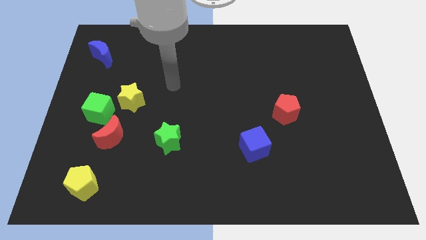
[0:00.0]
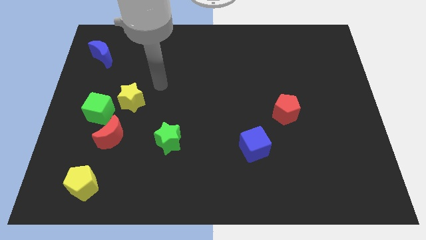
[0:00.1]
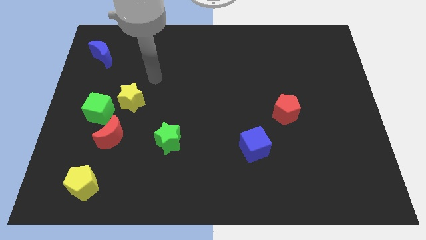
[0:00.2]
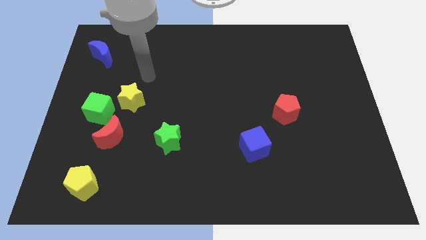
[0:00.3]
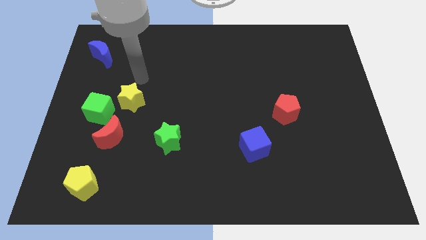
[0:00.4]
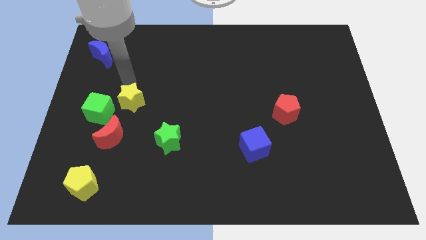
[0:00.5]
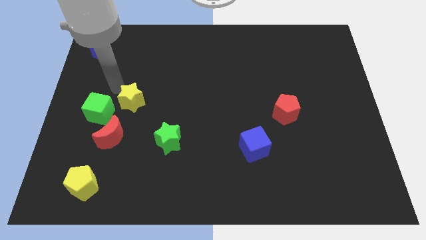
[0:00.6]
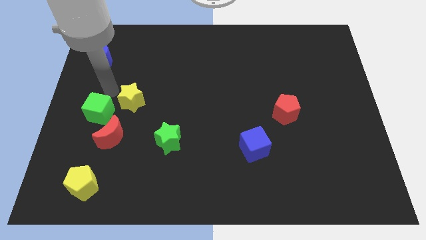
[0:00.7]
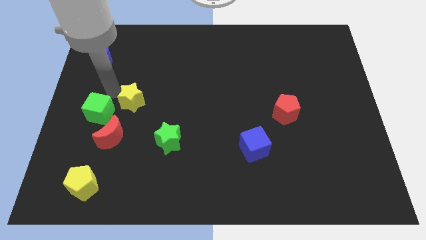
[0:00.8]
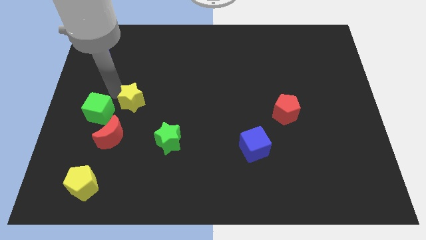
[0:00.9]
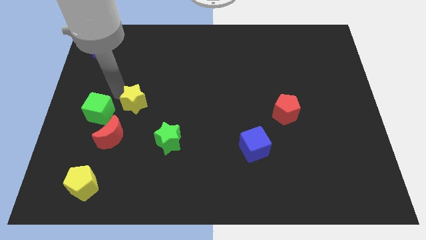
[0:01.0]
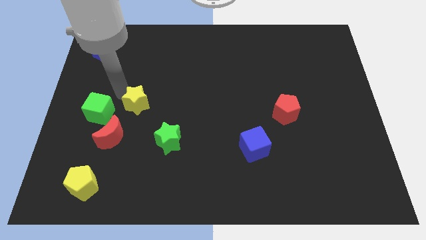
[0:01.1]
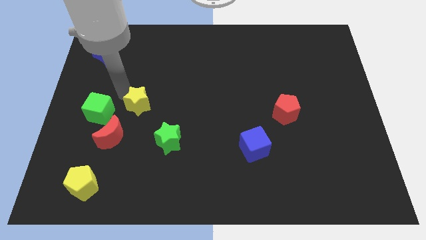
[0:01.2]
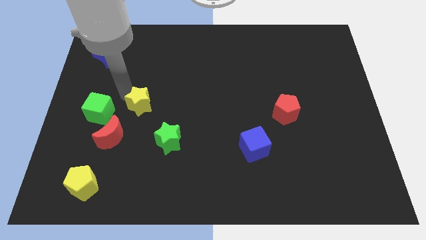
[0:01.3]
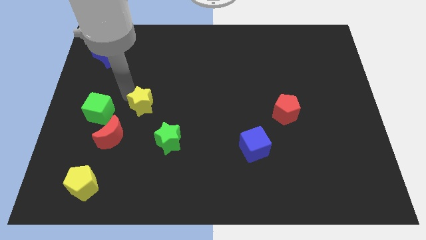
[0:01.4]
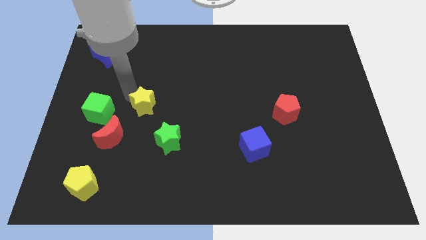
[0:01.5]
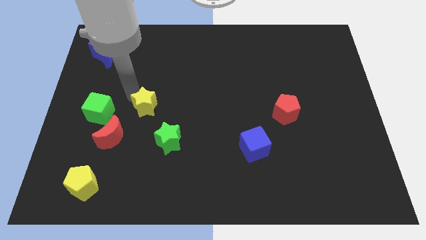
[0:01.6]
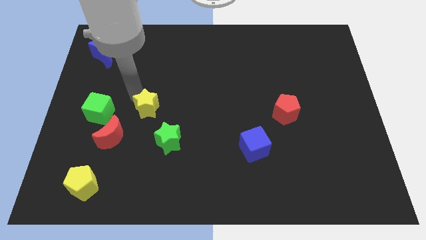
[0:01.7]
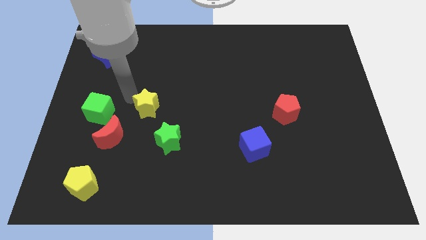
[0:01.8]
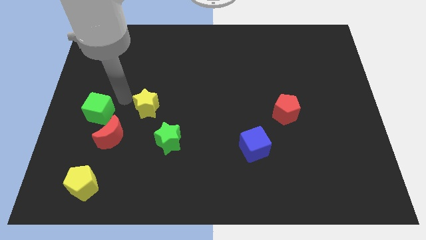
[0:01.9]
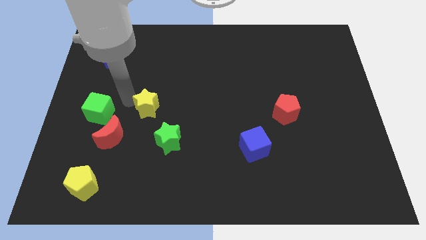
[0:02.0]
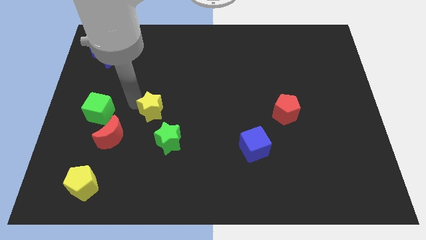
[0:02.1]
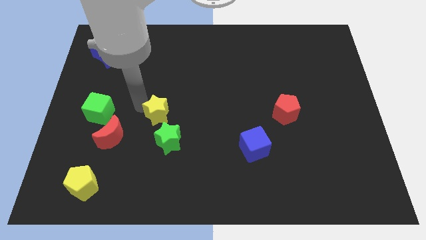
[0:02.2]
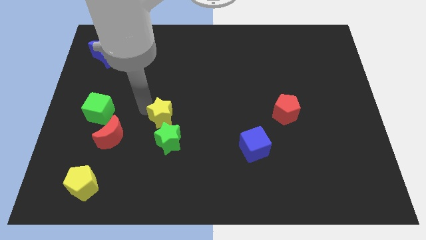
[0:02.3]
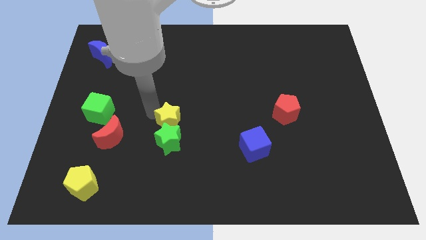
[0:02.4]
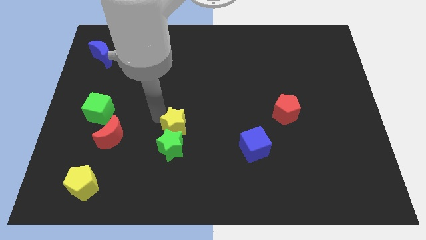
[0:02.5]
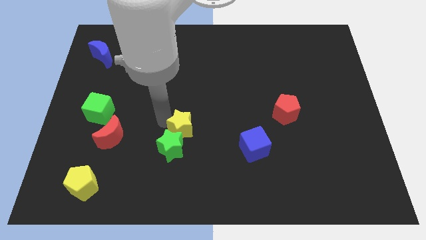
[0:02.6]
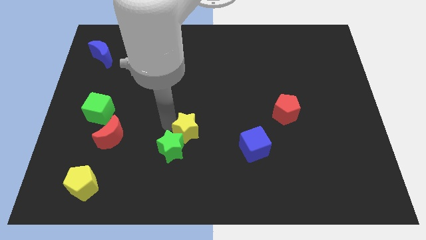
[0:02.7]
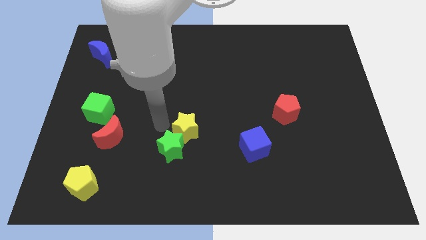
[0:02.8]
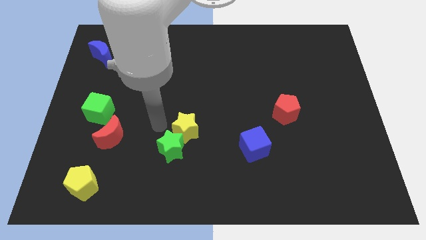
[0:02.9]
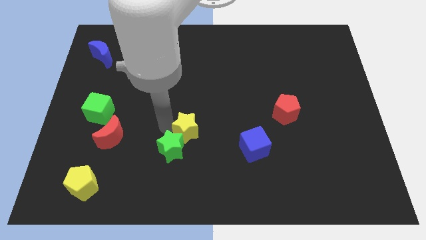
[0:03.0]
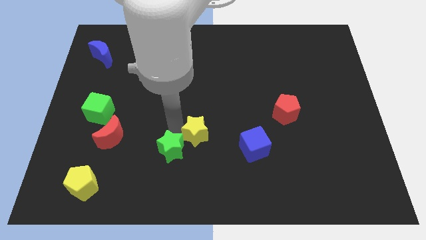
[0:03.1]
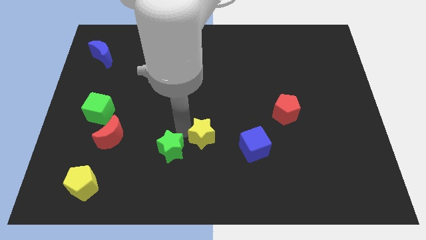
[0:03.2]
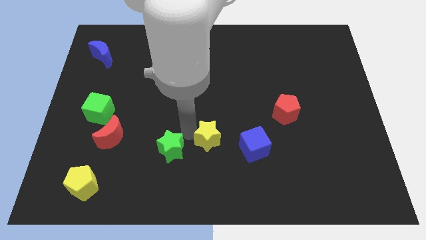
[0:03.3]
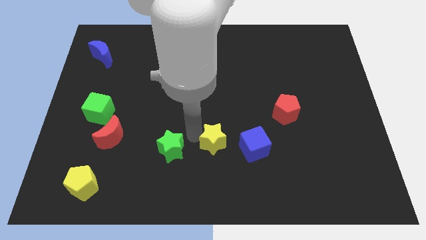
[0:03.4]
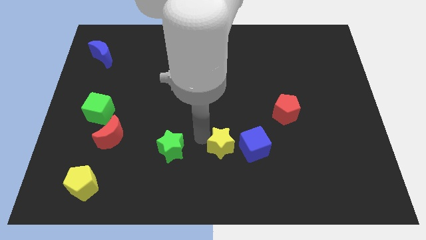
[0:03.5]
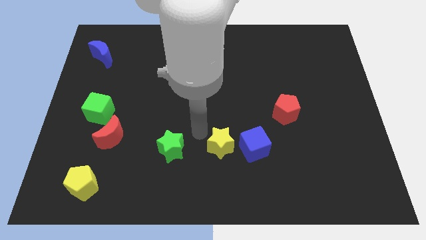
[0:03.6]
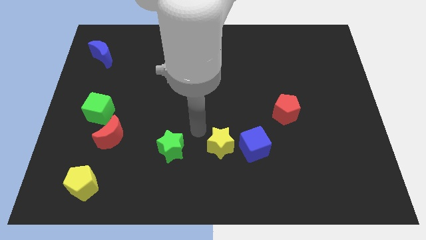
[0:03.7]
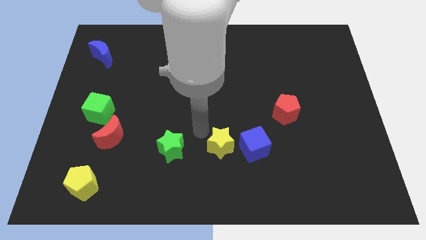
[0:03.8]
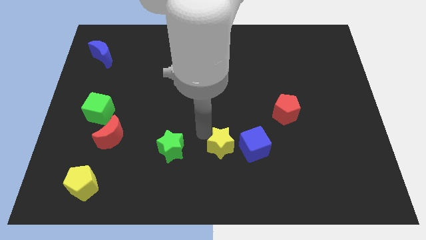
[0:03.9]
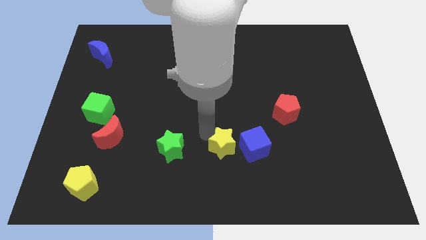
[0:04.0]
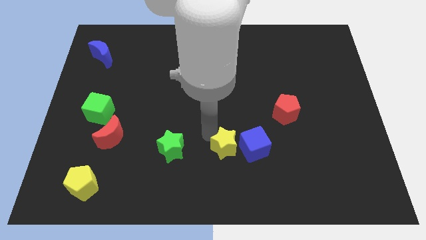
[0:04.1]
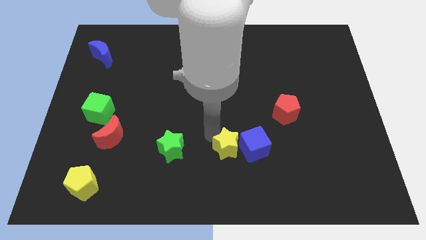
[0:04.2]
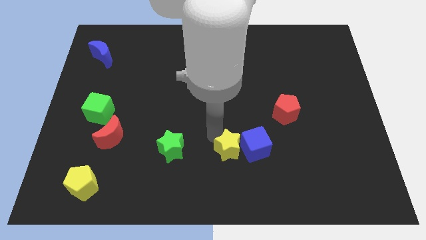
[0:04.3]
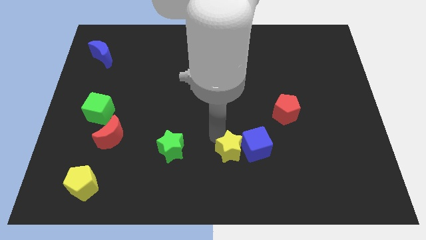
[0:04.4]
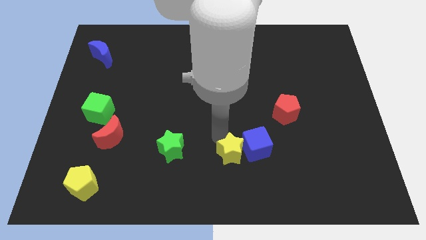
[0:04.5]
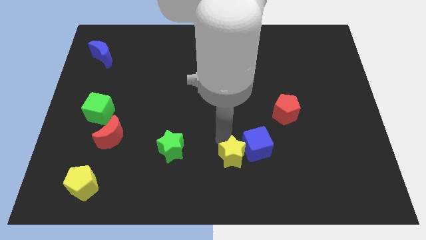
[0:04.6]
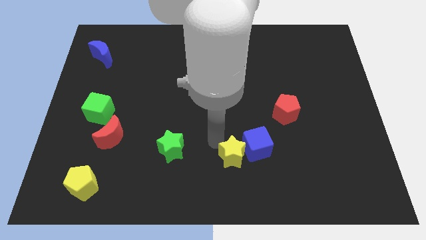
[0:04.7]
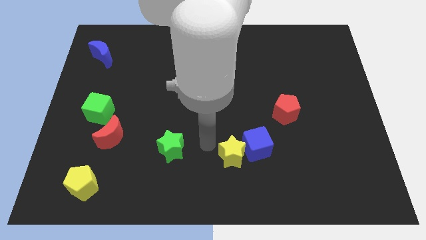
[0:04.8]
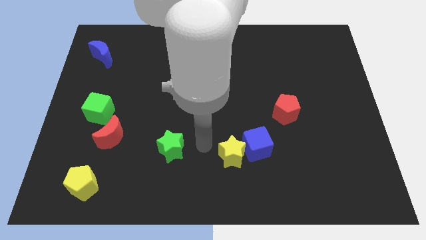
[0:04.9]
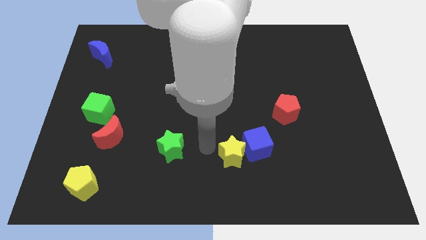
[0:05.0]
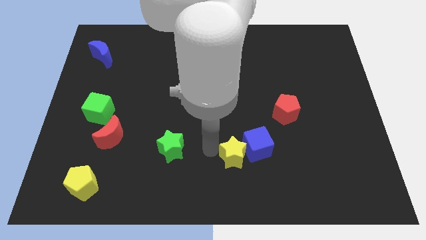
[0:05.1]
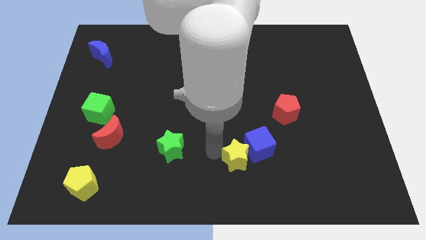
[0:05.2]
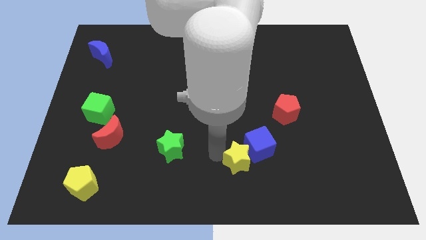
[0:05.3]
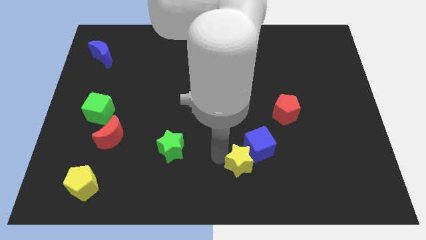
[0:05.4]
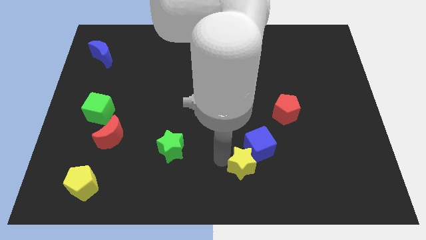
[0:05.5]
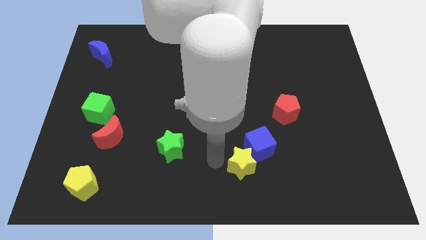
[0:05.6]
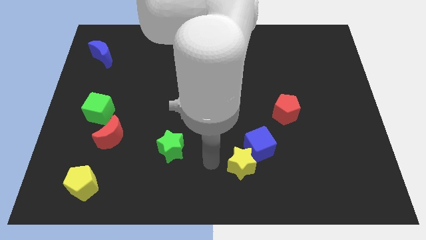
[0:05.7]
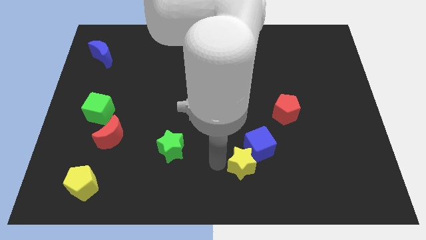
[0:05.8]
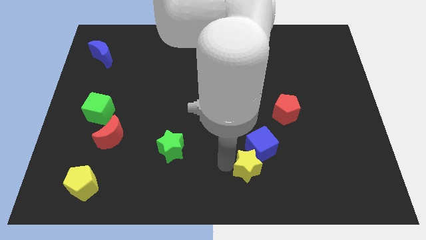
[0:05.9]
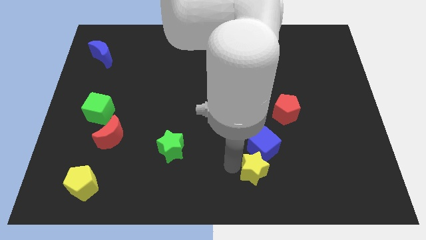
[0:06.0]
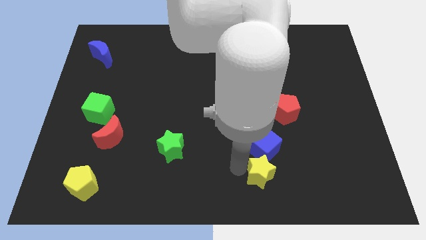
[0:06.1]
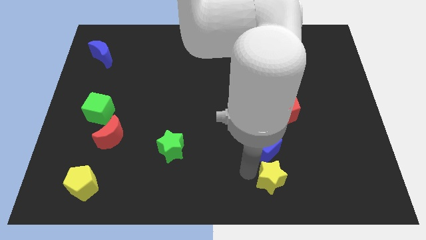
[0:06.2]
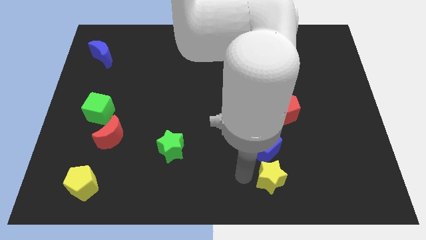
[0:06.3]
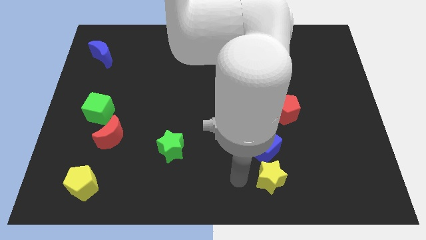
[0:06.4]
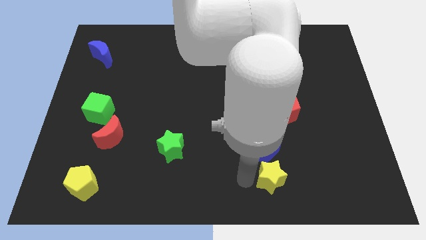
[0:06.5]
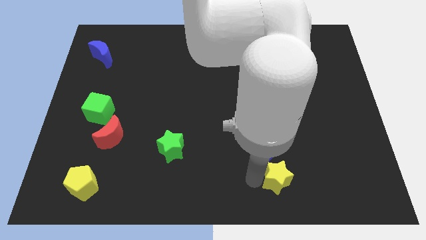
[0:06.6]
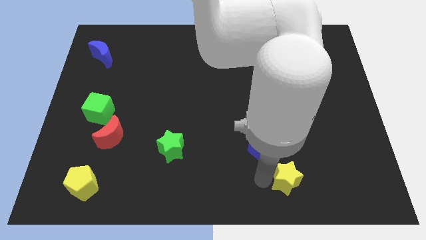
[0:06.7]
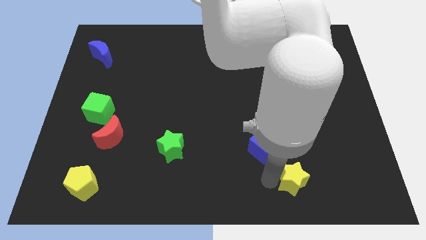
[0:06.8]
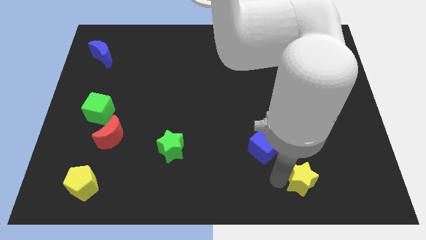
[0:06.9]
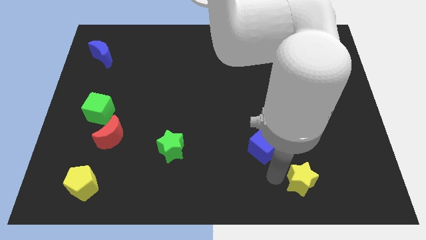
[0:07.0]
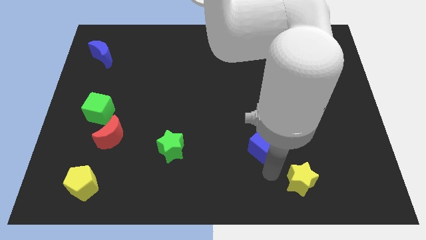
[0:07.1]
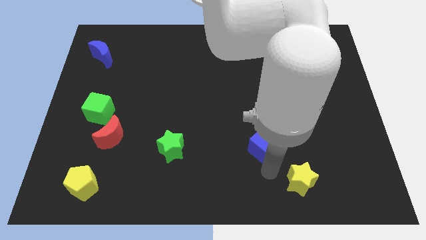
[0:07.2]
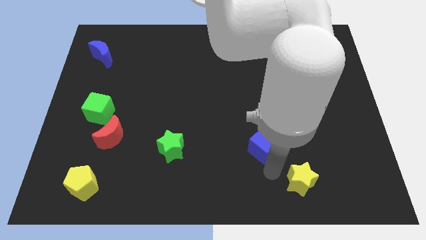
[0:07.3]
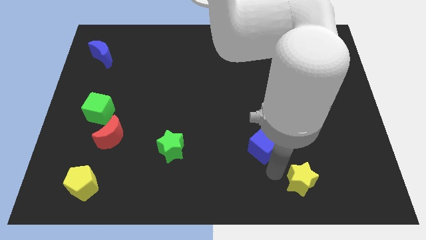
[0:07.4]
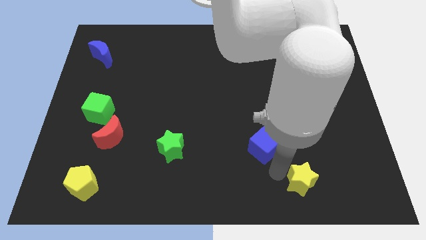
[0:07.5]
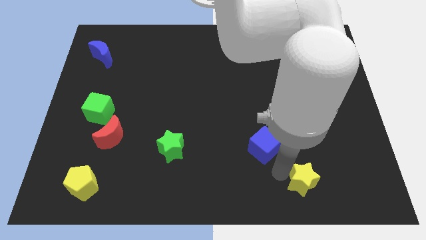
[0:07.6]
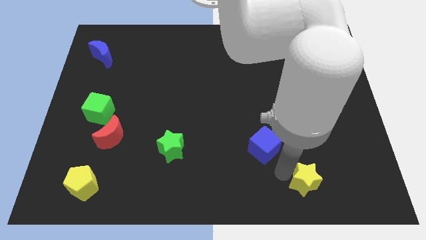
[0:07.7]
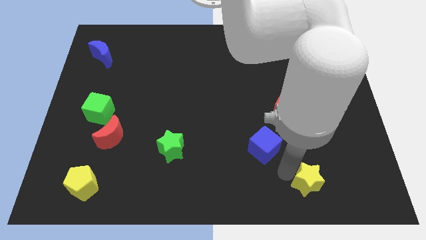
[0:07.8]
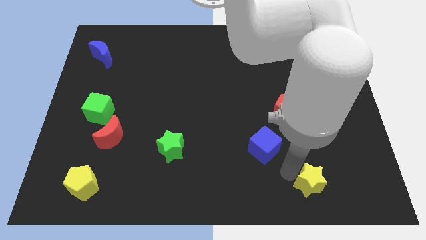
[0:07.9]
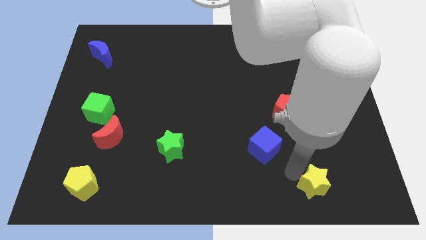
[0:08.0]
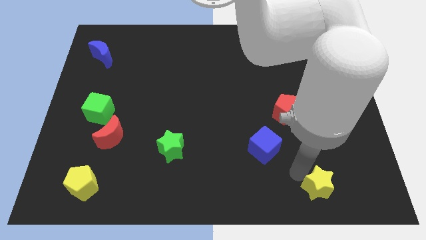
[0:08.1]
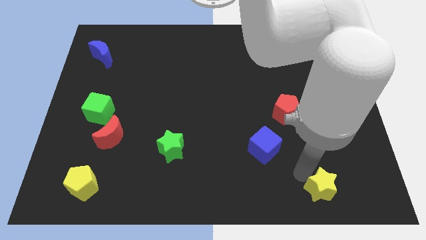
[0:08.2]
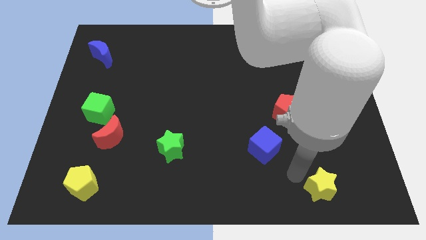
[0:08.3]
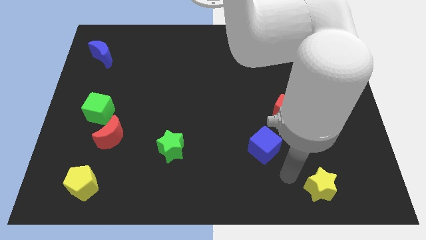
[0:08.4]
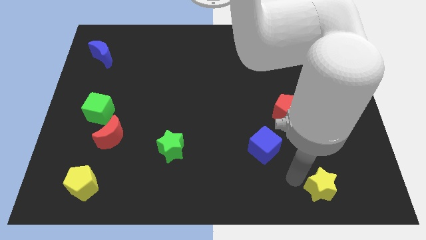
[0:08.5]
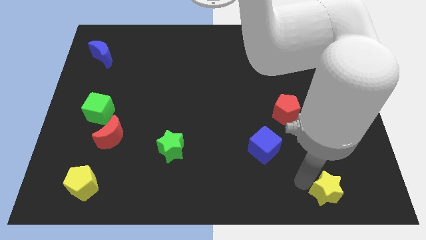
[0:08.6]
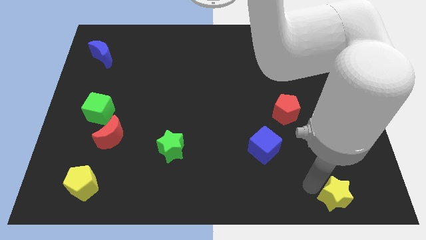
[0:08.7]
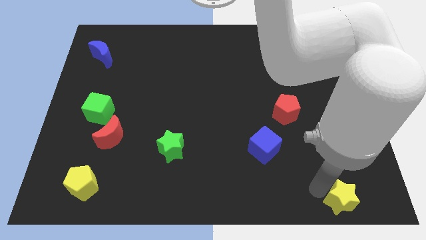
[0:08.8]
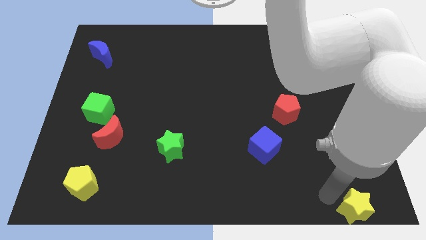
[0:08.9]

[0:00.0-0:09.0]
put the yellow star to the bottom right of the board
